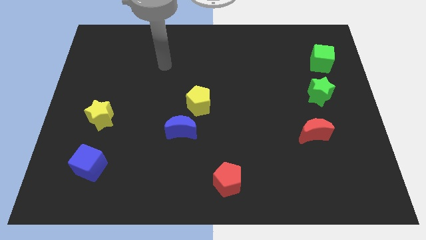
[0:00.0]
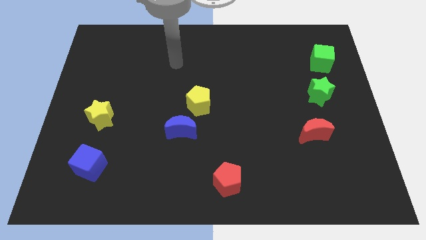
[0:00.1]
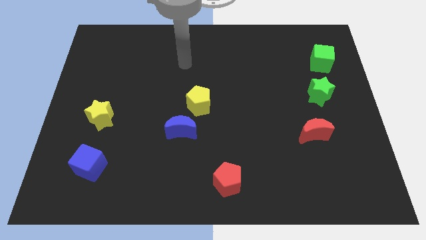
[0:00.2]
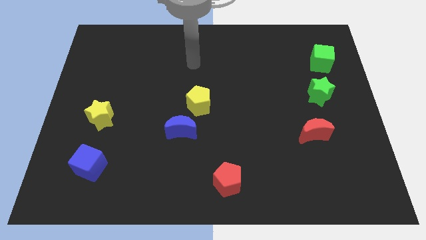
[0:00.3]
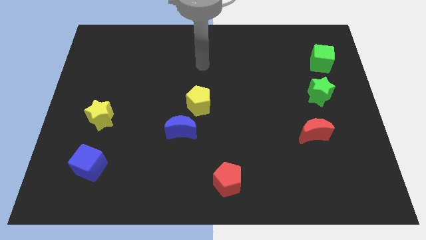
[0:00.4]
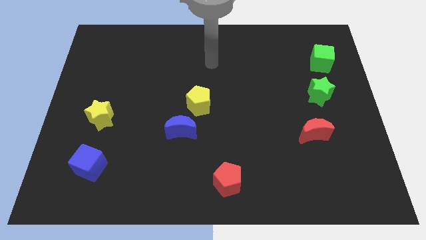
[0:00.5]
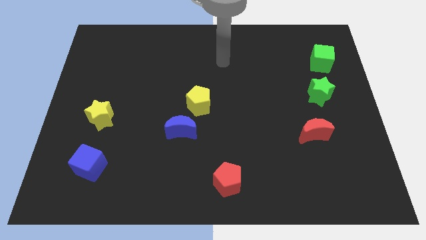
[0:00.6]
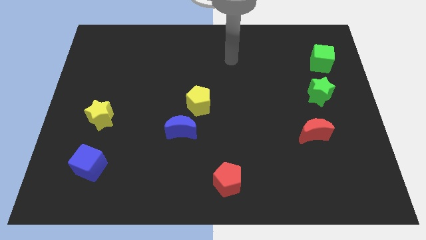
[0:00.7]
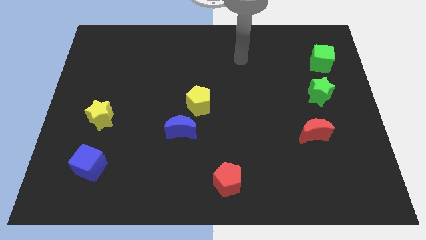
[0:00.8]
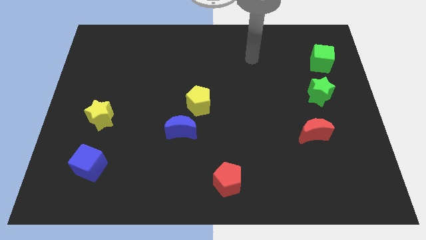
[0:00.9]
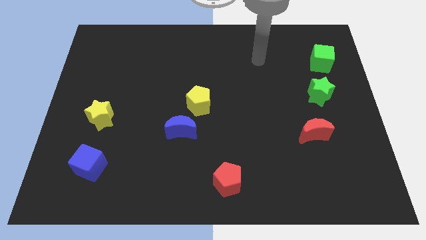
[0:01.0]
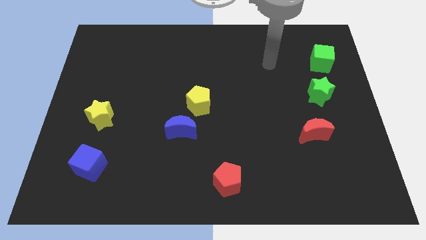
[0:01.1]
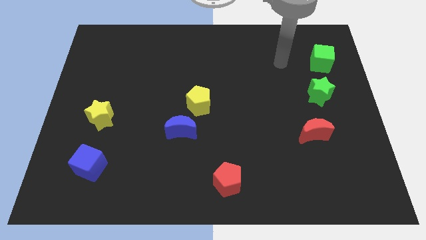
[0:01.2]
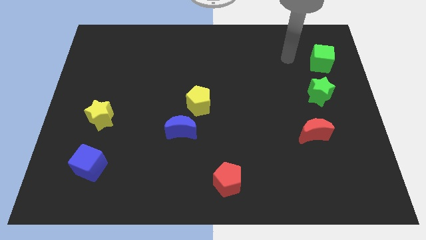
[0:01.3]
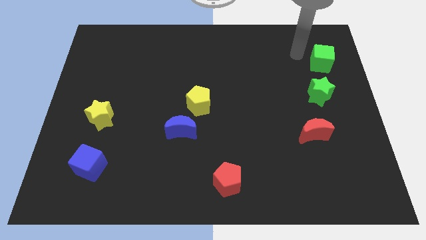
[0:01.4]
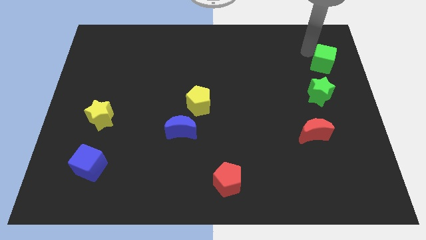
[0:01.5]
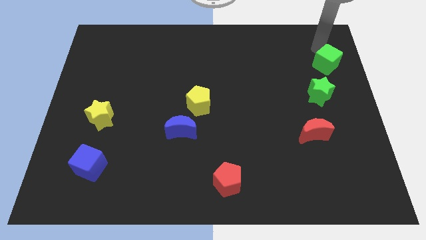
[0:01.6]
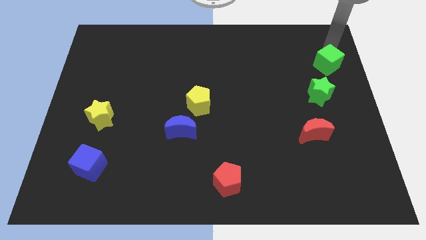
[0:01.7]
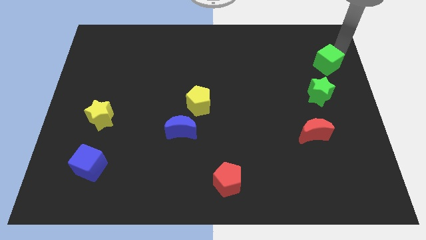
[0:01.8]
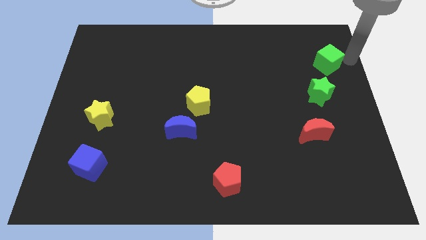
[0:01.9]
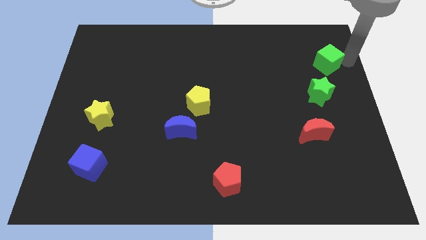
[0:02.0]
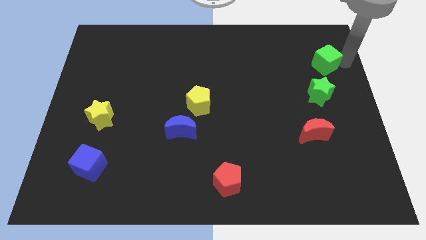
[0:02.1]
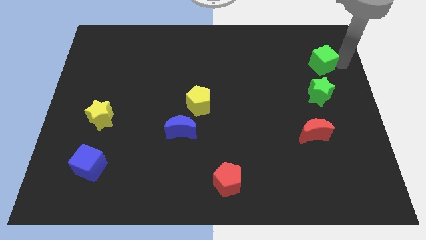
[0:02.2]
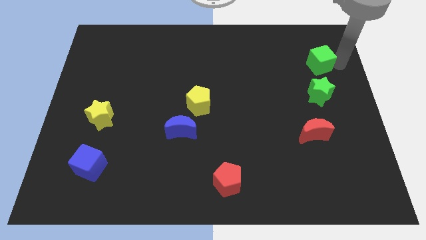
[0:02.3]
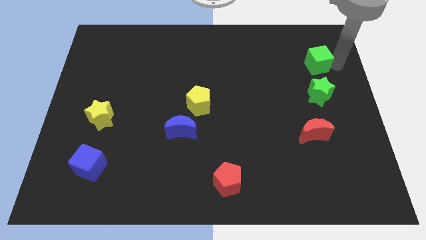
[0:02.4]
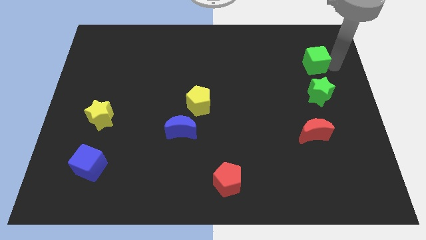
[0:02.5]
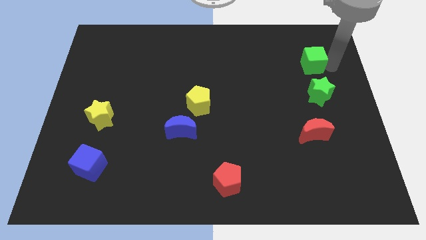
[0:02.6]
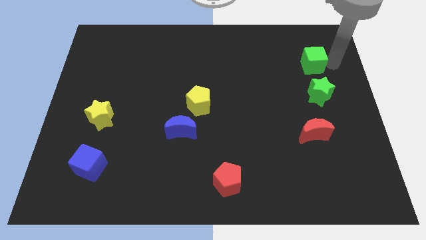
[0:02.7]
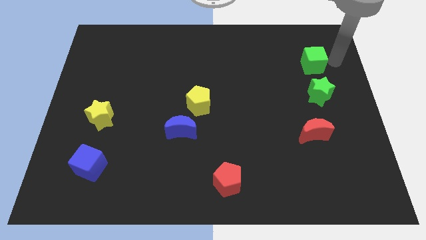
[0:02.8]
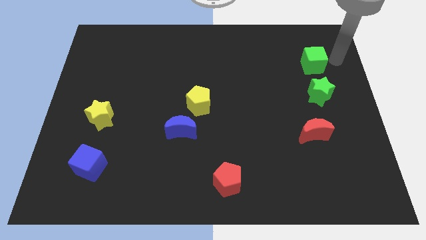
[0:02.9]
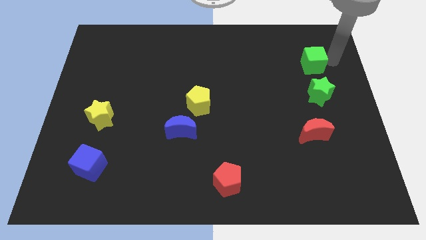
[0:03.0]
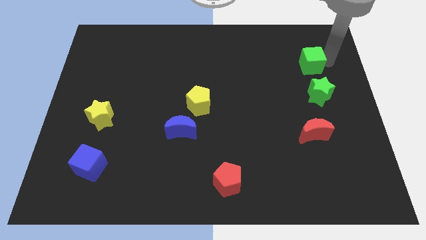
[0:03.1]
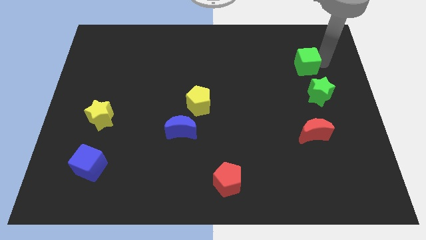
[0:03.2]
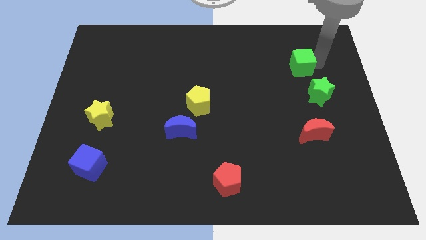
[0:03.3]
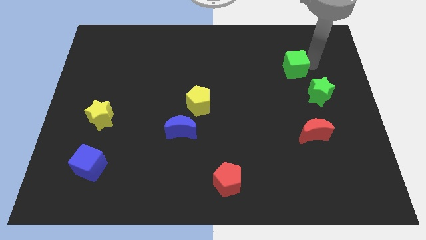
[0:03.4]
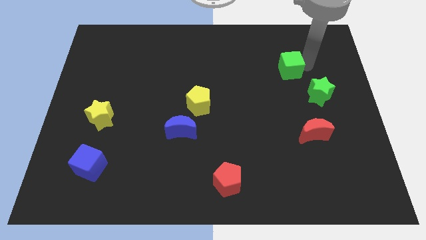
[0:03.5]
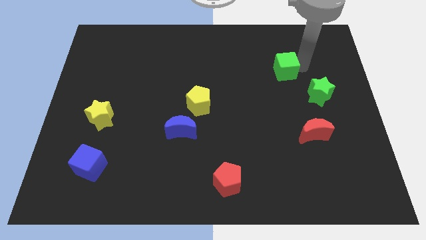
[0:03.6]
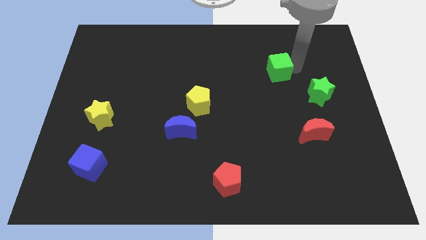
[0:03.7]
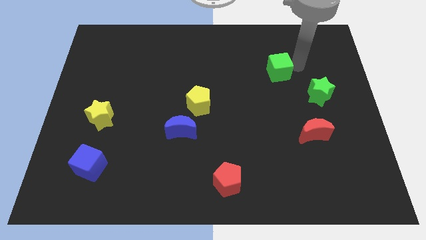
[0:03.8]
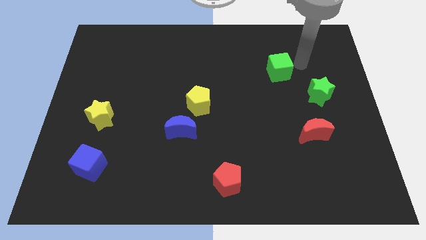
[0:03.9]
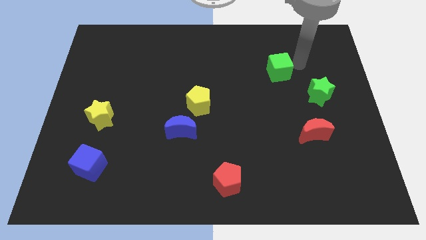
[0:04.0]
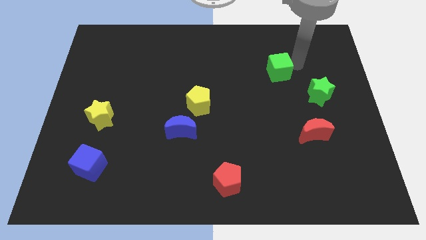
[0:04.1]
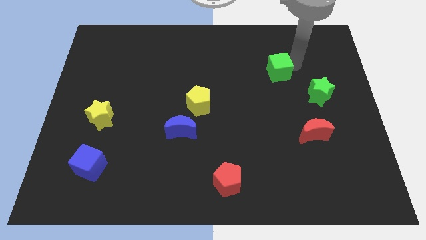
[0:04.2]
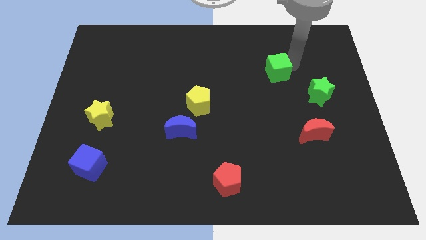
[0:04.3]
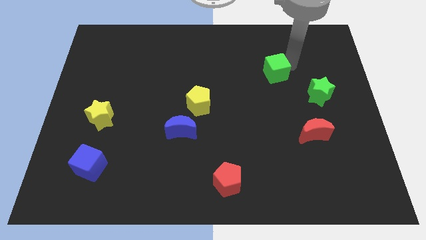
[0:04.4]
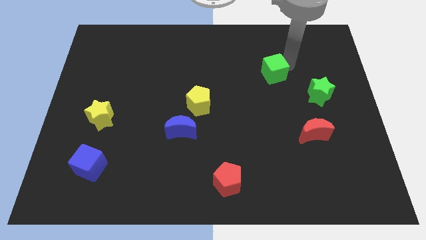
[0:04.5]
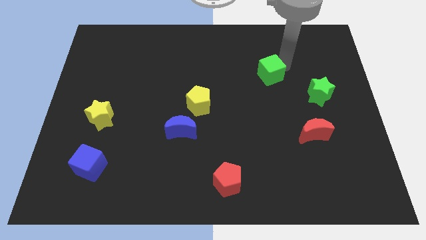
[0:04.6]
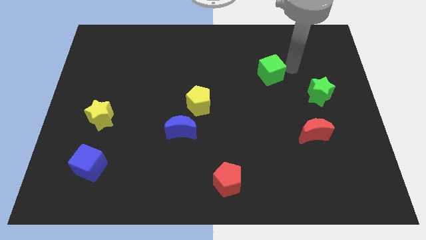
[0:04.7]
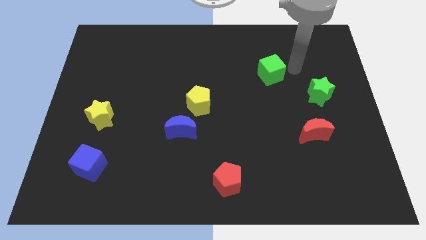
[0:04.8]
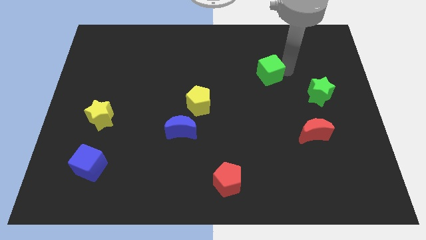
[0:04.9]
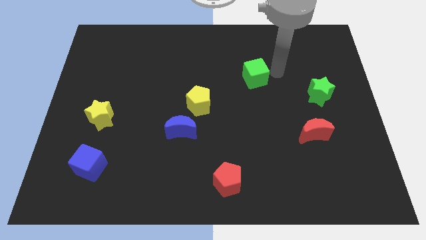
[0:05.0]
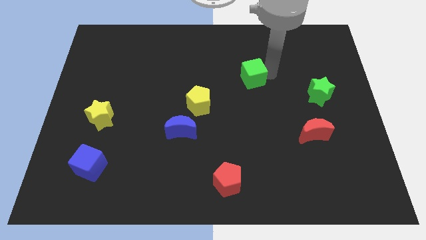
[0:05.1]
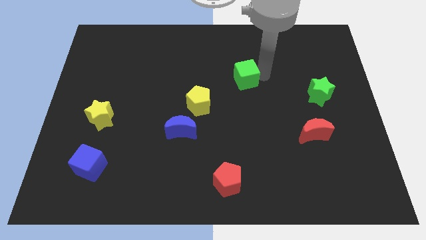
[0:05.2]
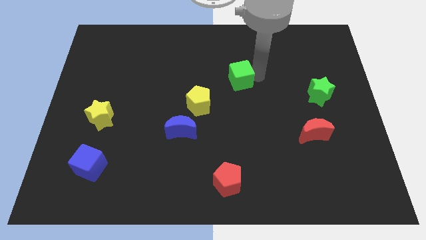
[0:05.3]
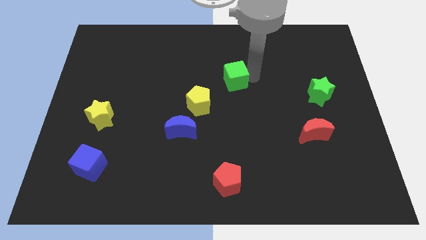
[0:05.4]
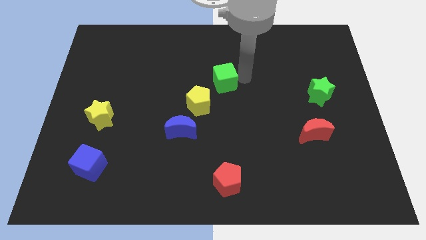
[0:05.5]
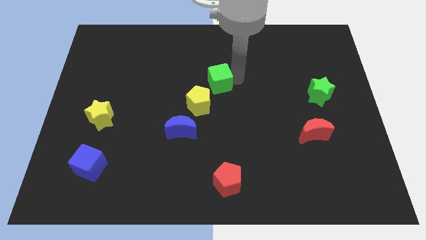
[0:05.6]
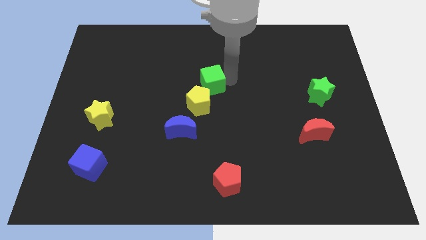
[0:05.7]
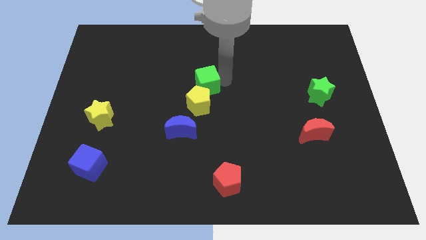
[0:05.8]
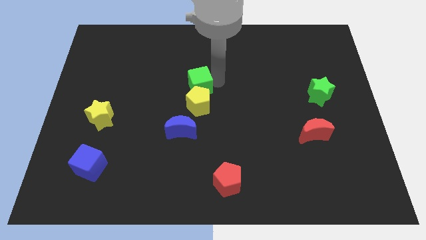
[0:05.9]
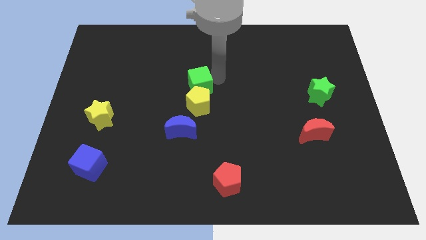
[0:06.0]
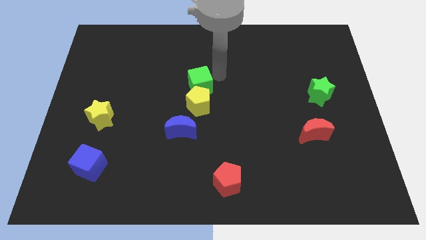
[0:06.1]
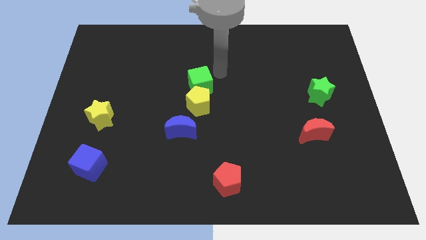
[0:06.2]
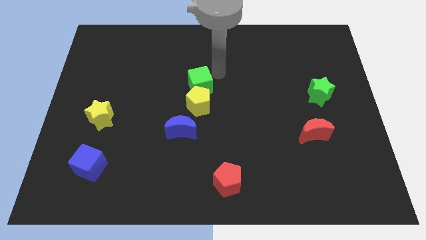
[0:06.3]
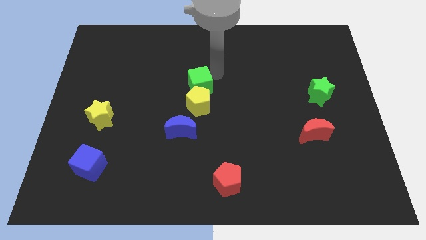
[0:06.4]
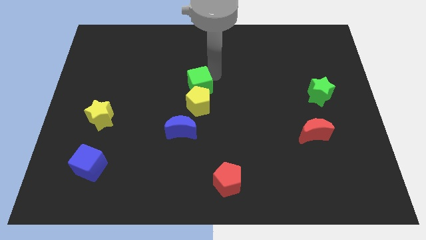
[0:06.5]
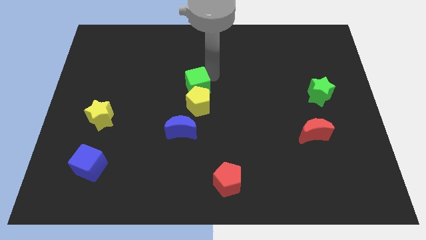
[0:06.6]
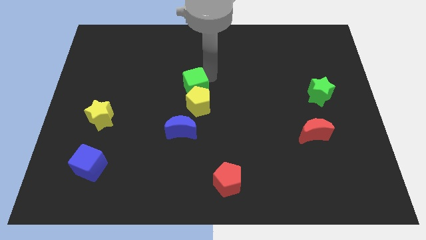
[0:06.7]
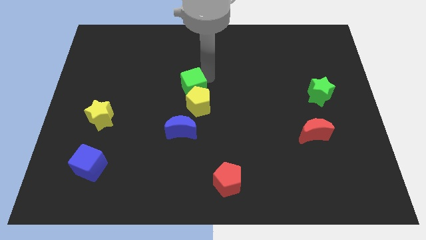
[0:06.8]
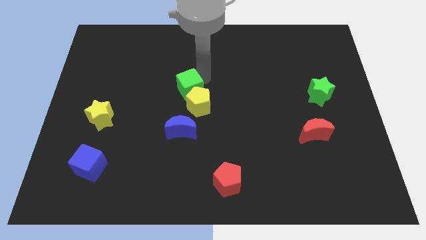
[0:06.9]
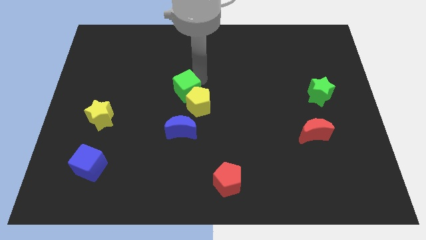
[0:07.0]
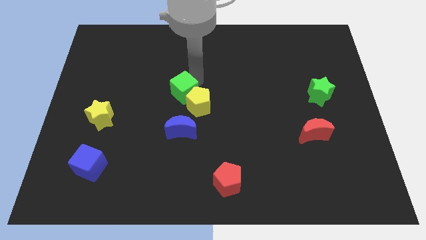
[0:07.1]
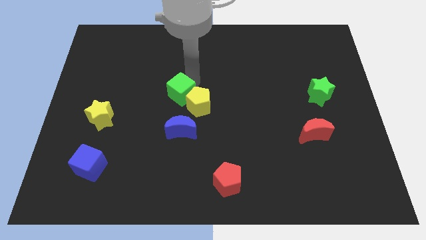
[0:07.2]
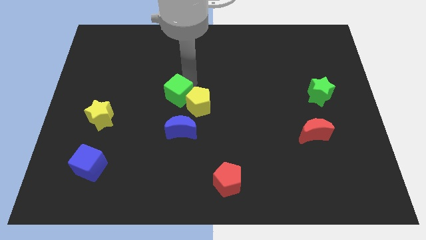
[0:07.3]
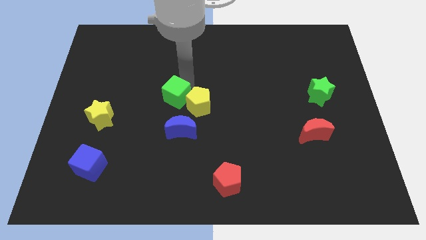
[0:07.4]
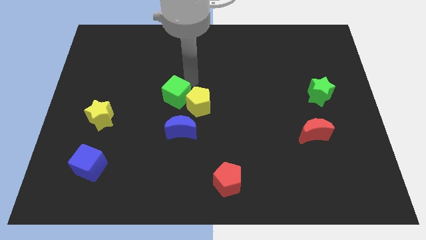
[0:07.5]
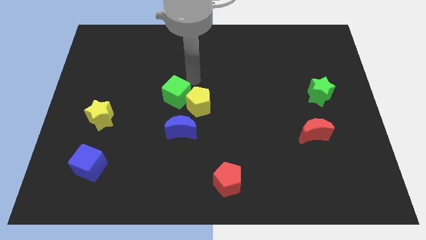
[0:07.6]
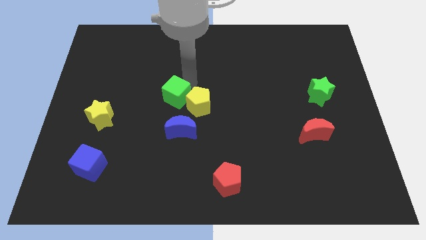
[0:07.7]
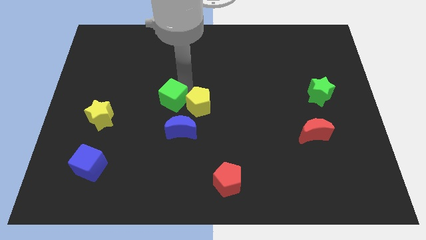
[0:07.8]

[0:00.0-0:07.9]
slide the green cube to the top left of the blue moon
